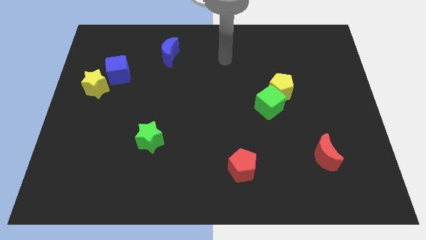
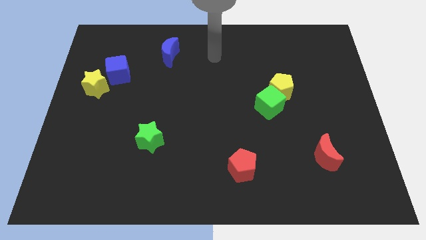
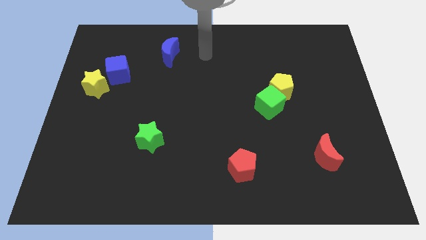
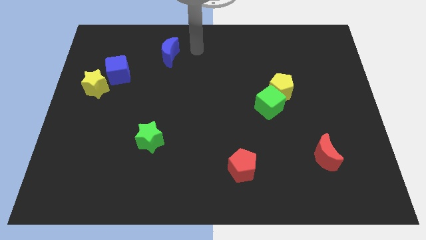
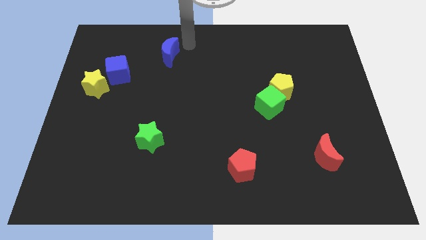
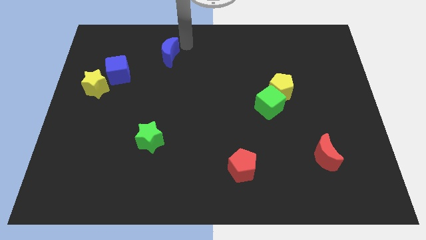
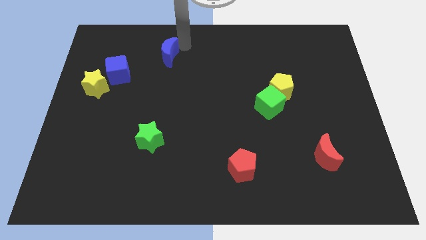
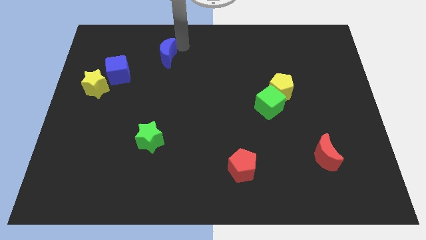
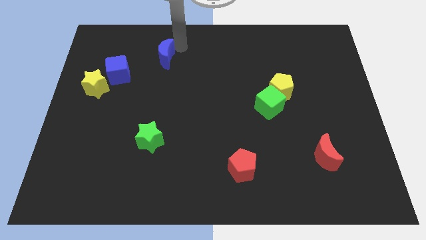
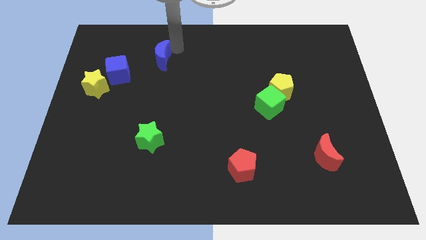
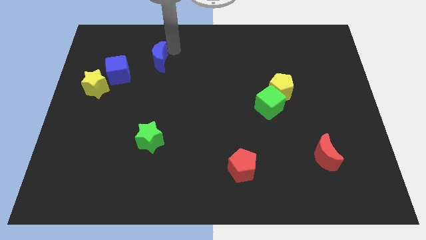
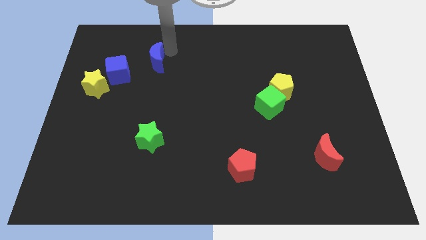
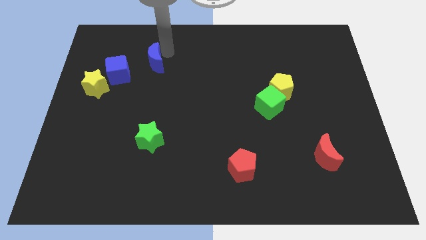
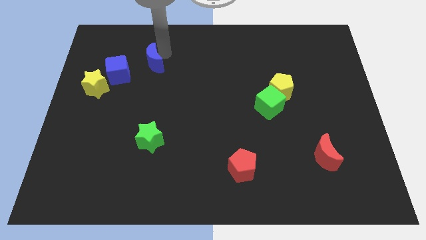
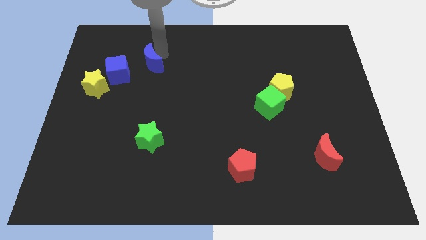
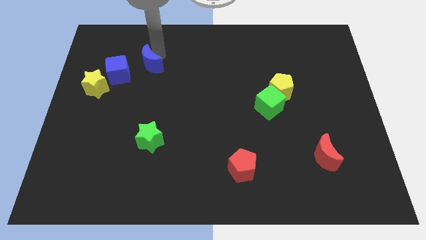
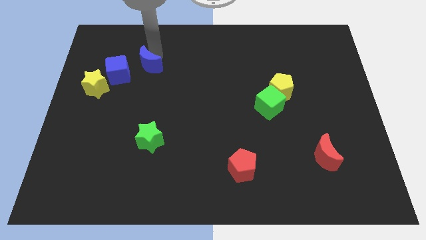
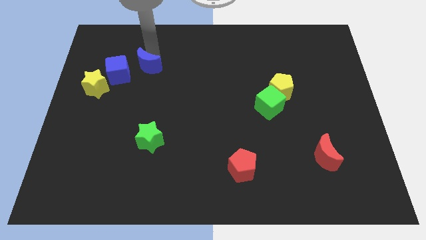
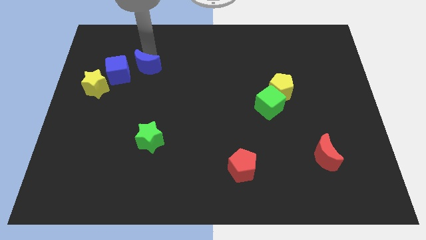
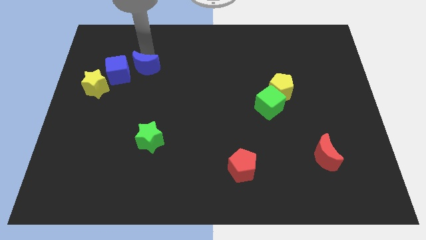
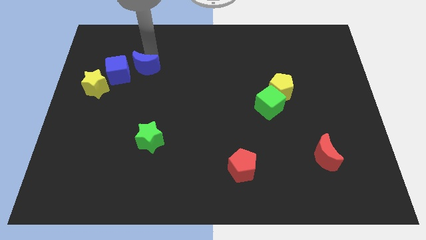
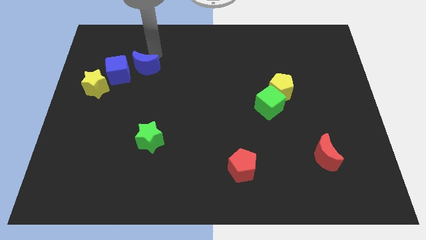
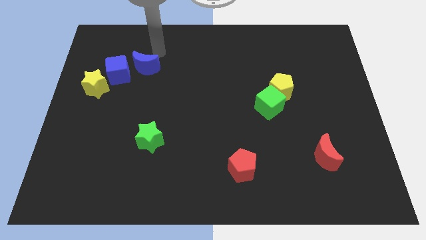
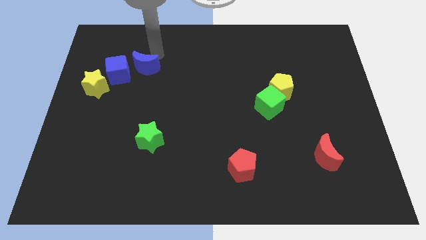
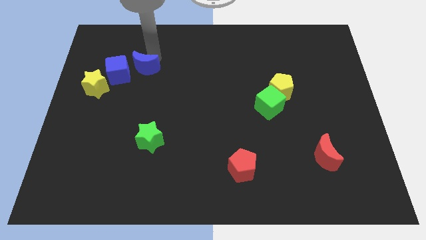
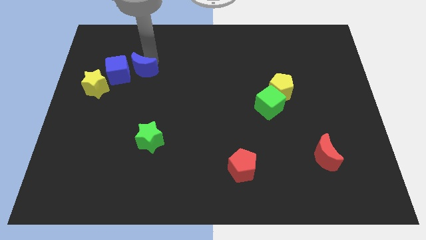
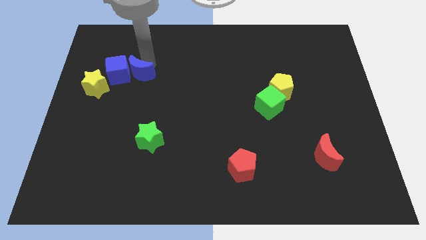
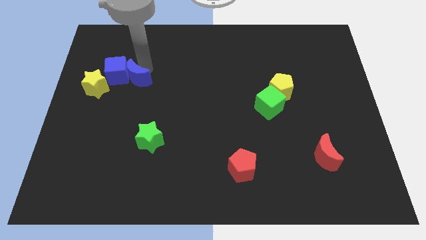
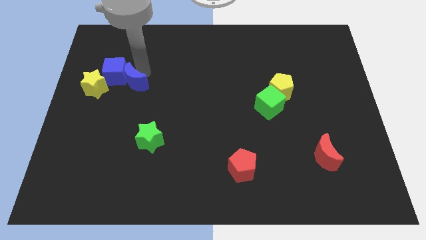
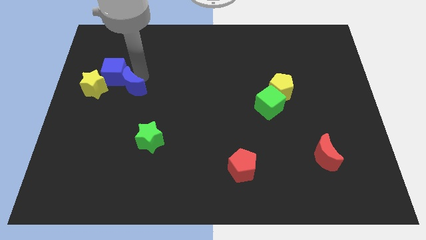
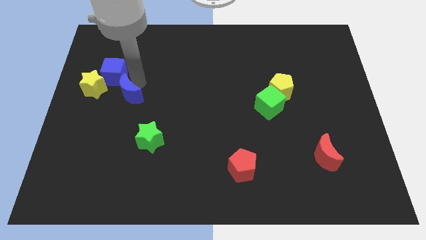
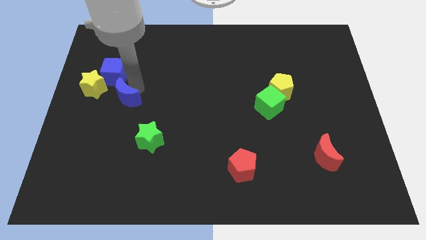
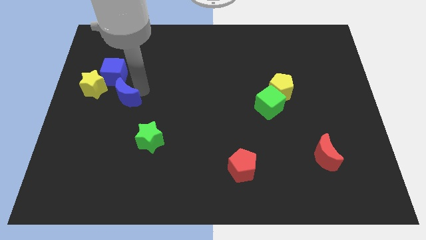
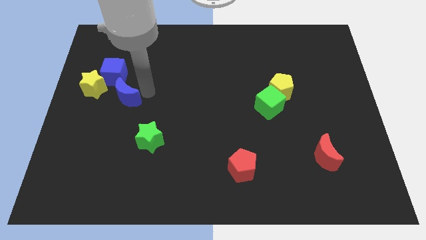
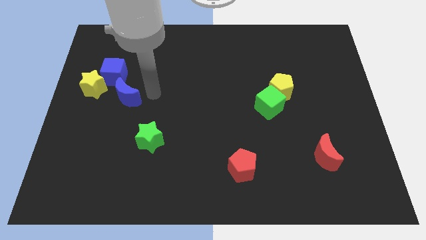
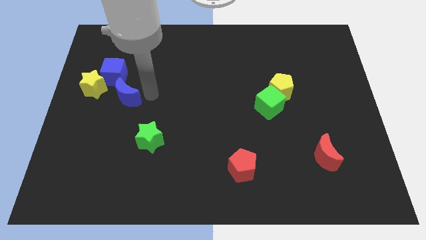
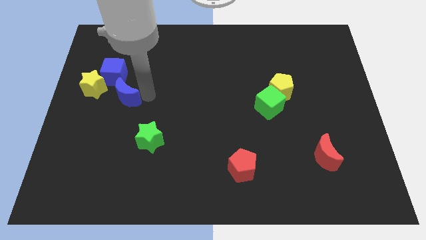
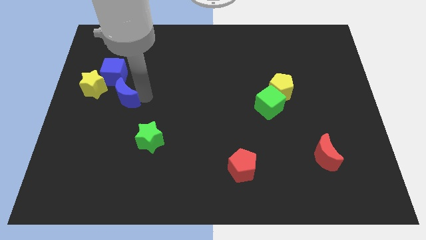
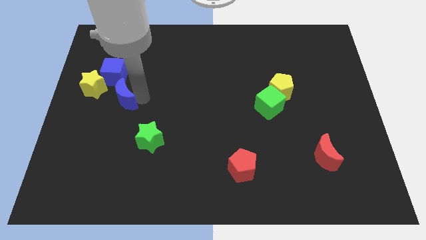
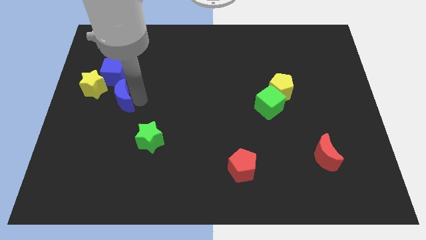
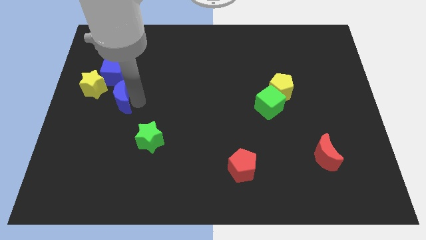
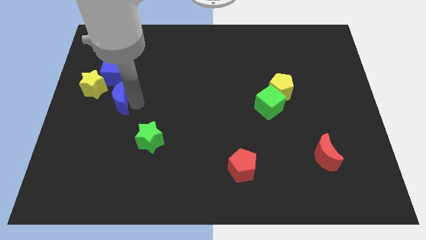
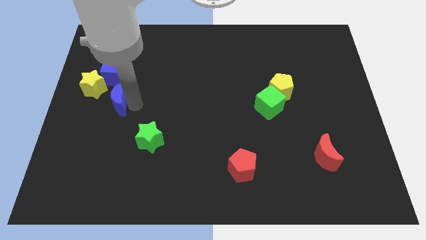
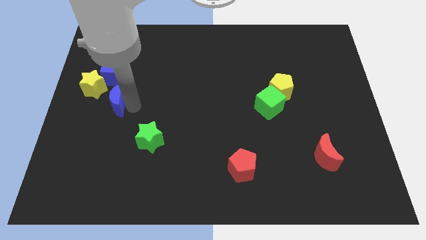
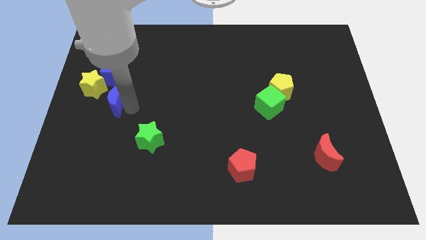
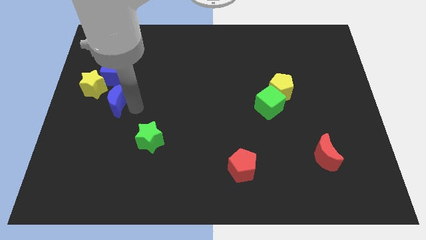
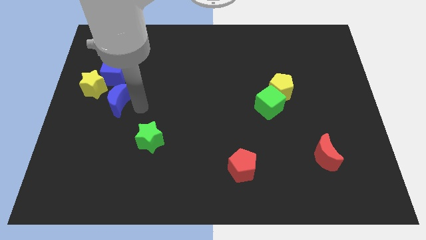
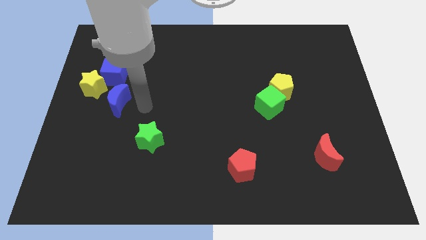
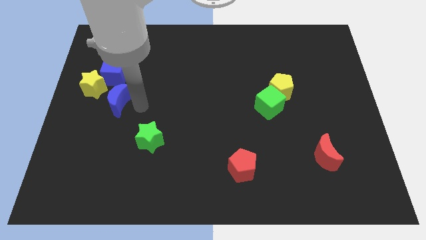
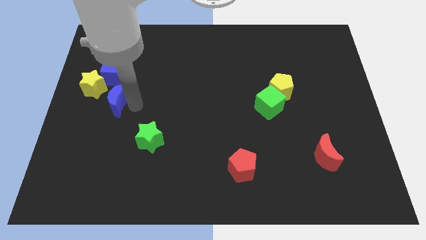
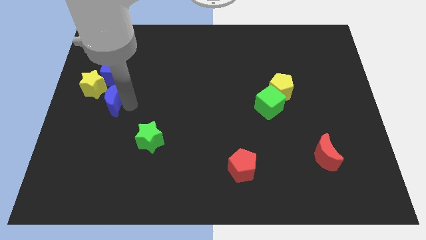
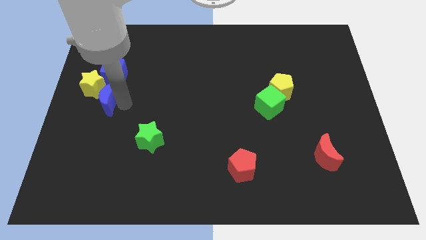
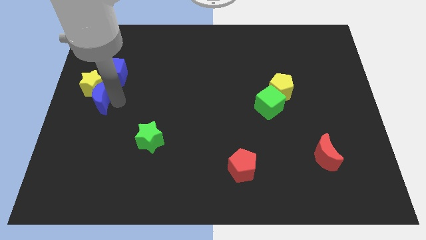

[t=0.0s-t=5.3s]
slide the blue moon to the center left

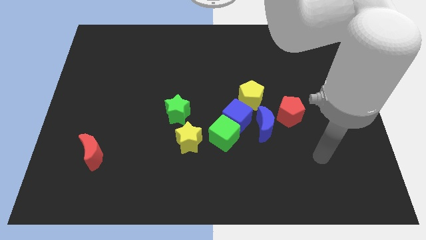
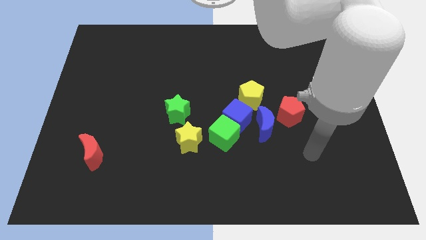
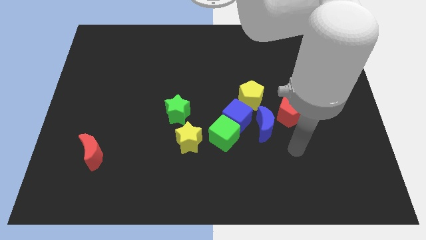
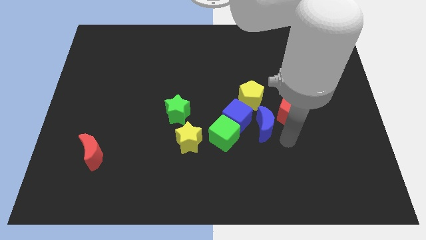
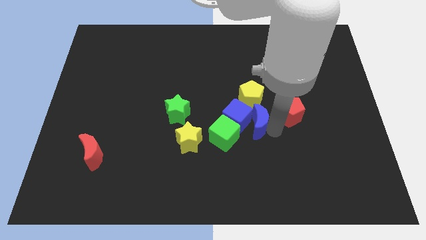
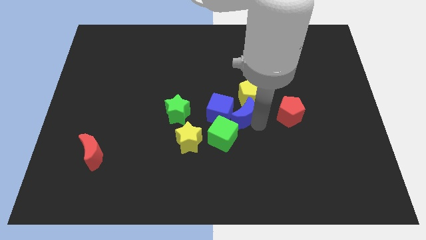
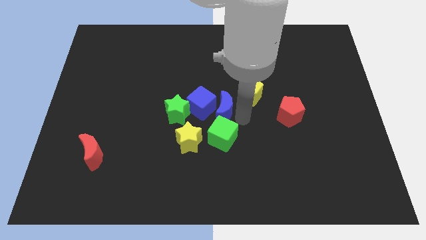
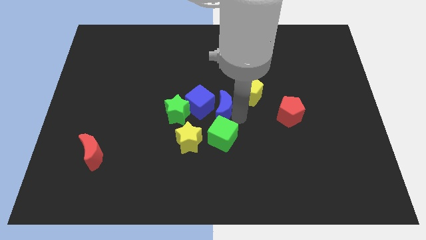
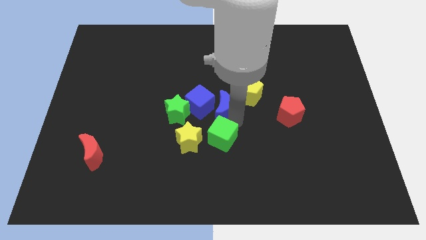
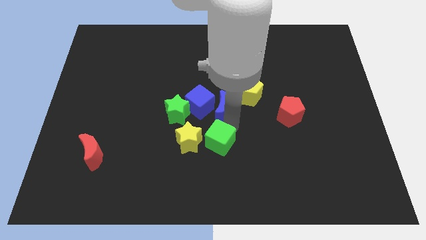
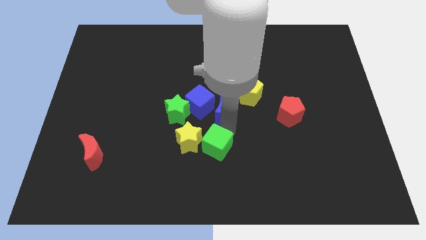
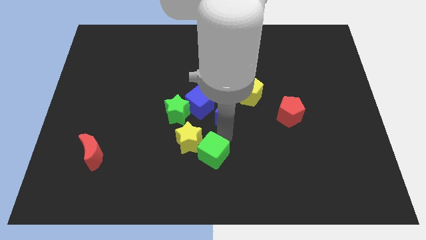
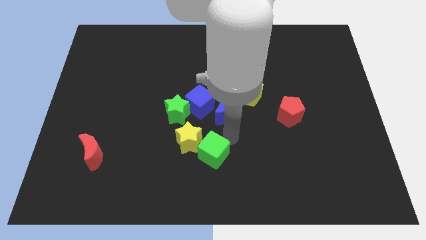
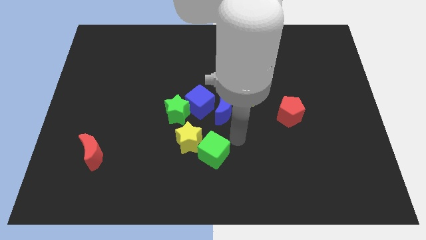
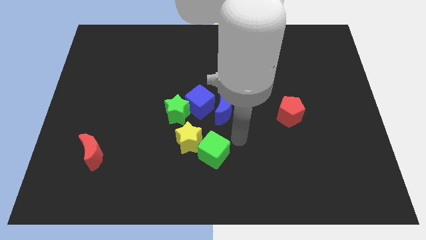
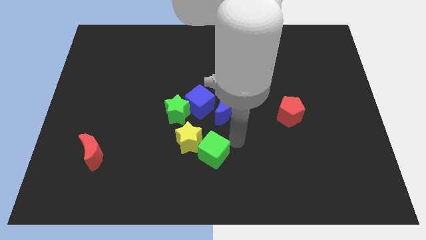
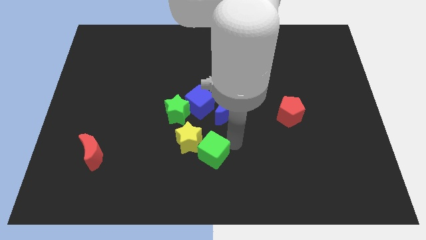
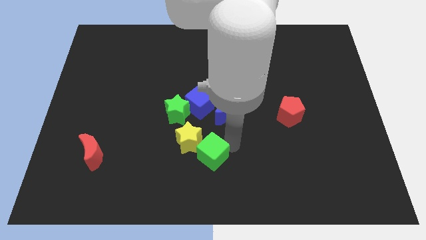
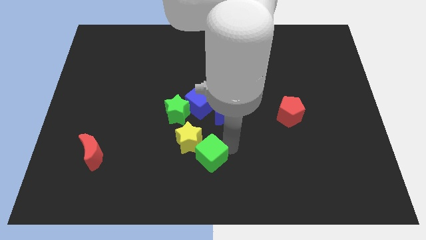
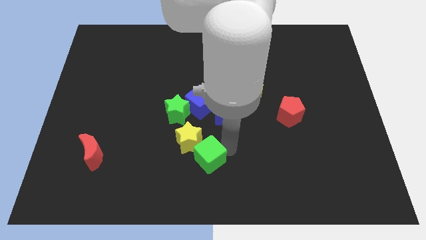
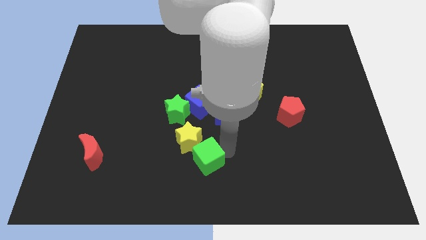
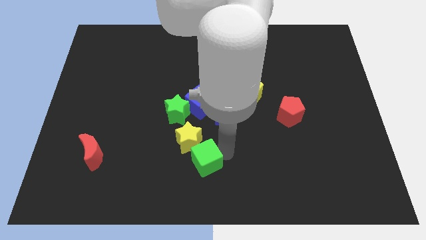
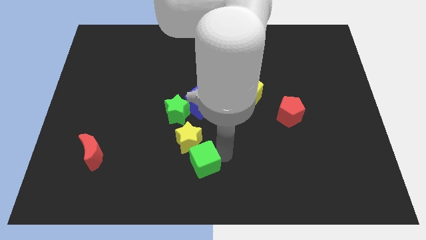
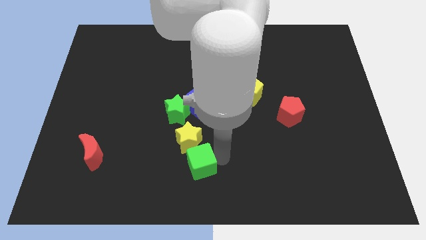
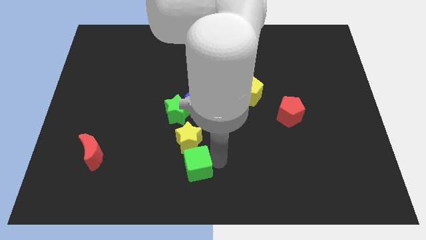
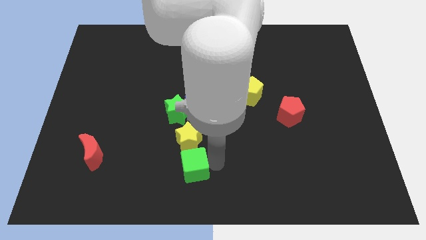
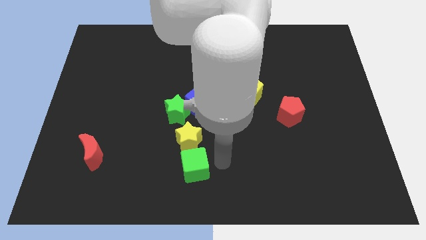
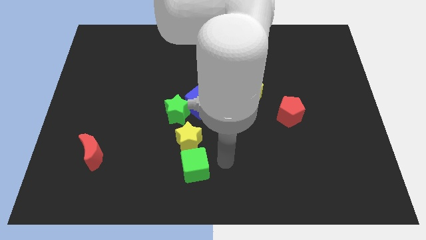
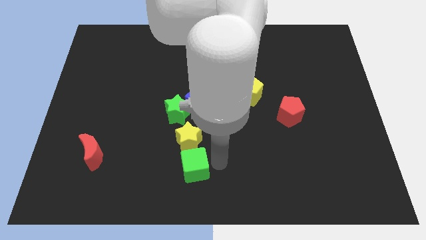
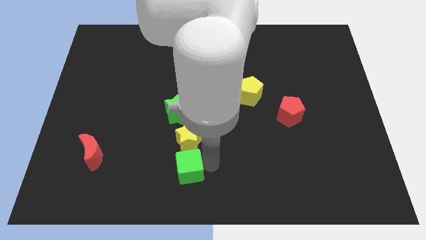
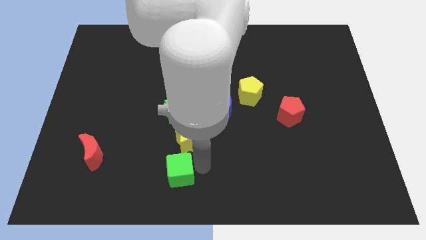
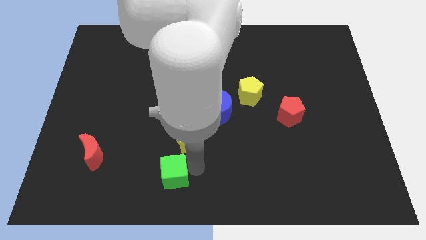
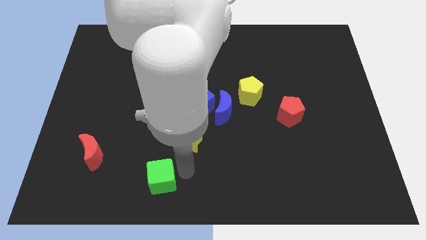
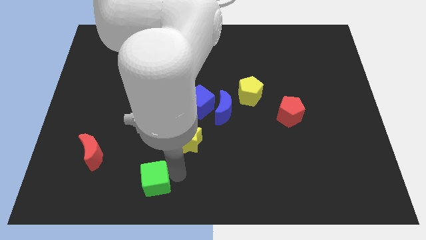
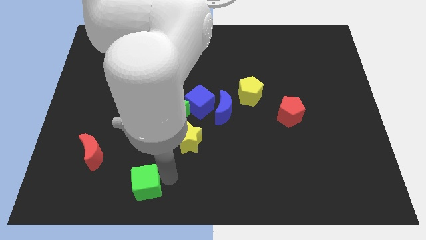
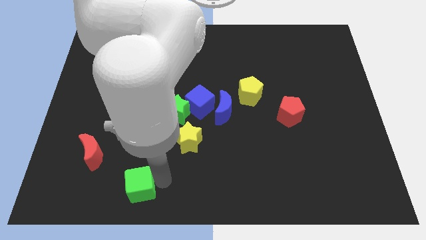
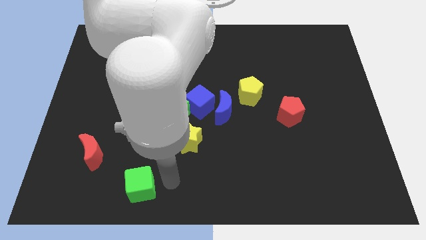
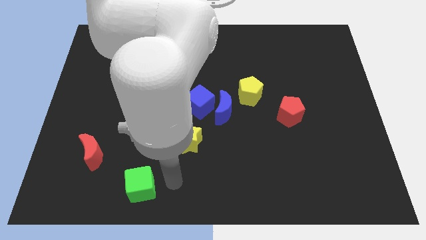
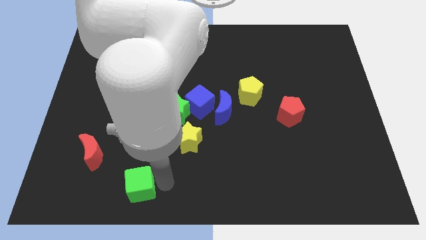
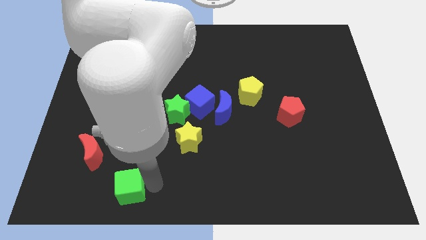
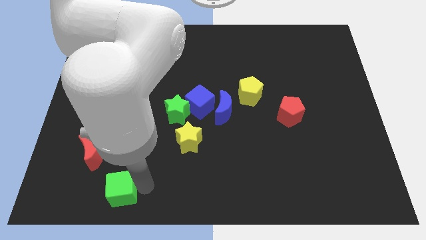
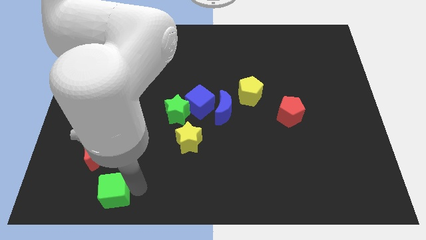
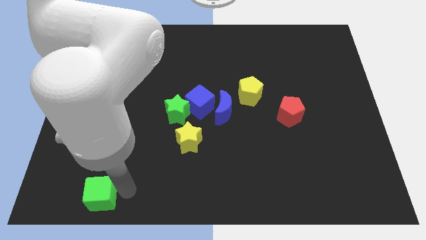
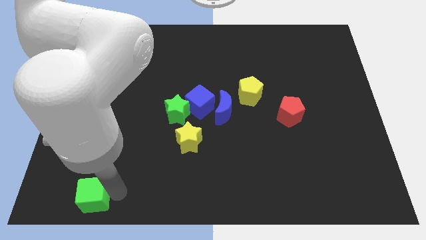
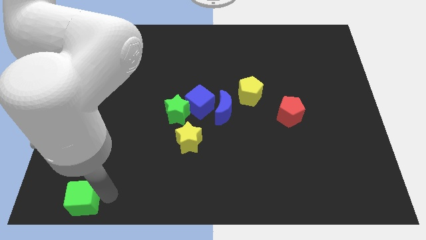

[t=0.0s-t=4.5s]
put the green cube to the lower left corner
